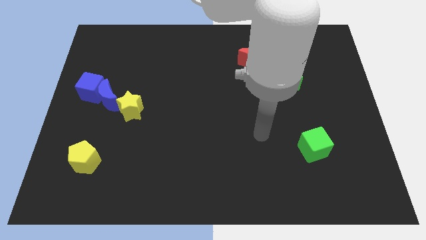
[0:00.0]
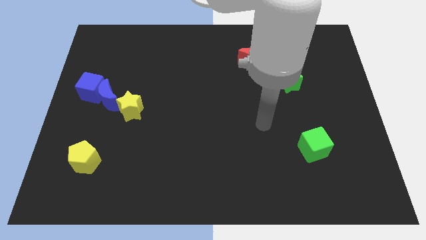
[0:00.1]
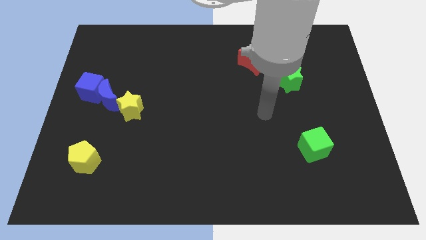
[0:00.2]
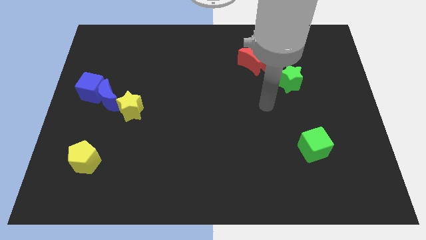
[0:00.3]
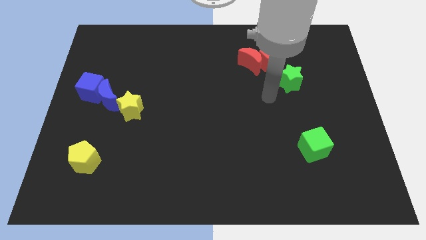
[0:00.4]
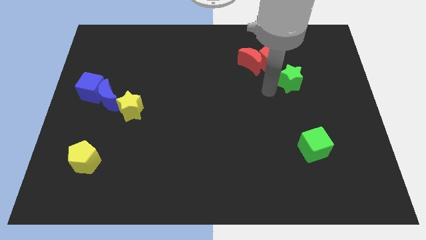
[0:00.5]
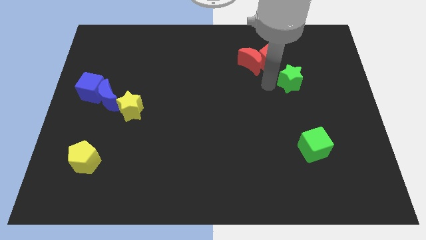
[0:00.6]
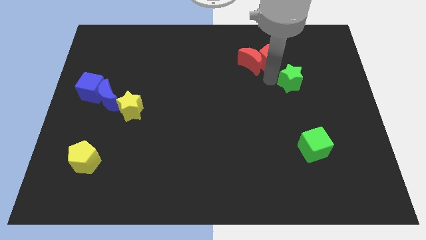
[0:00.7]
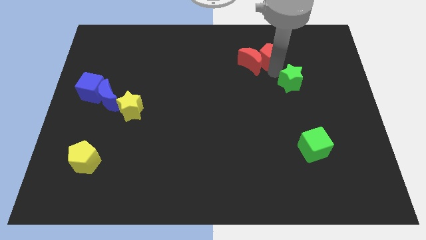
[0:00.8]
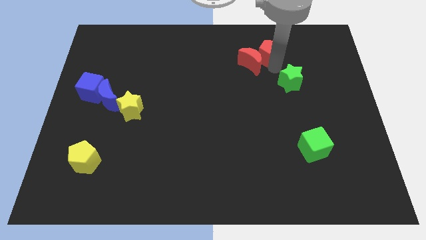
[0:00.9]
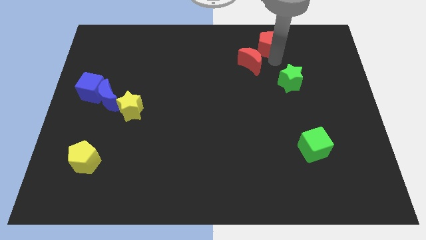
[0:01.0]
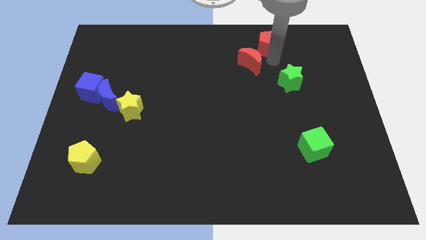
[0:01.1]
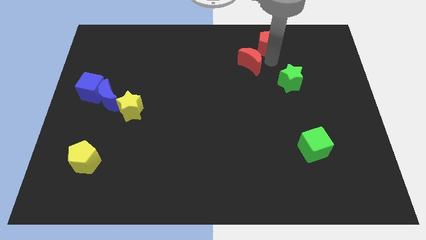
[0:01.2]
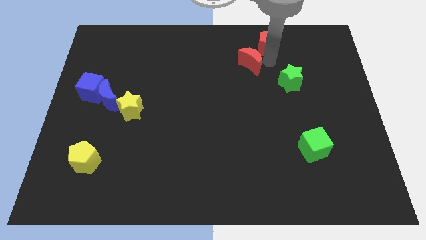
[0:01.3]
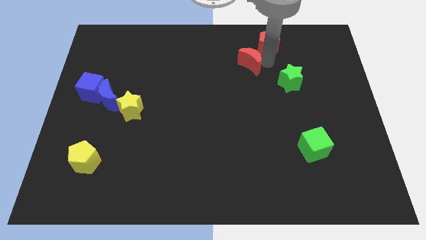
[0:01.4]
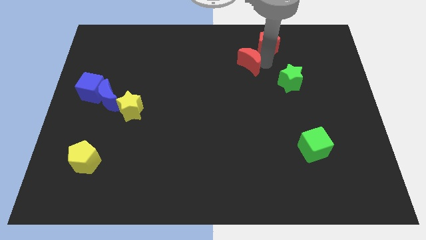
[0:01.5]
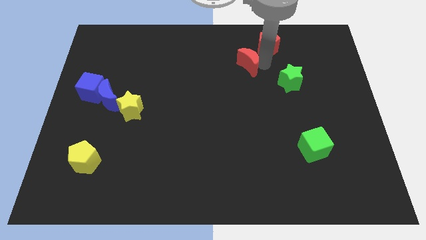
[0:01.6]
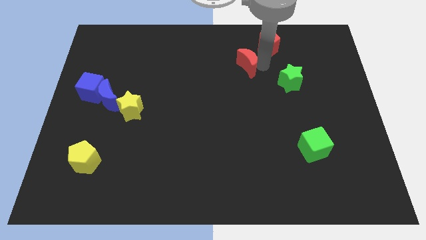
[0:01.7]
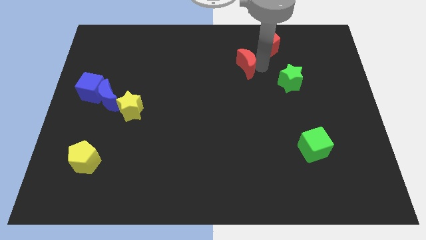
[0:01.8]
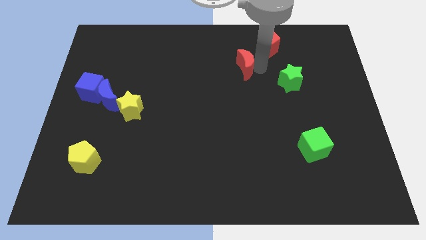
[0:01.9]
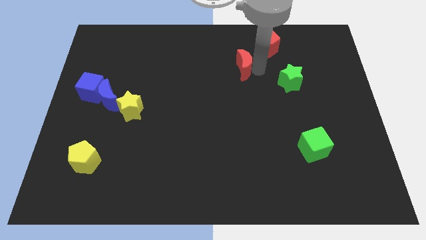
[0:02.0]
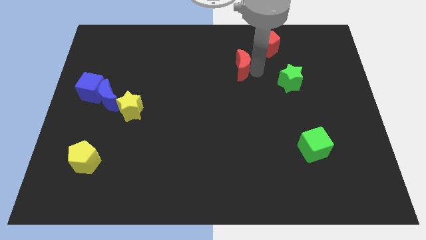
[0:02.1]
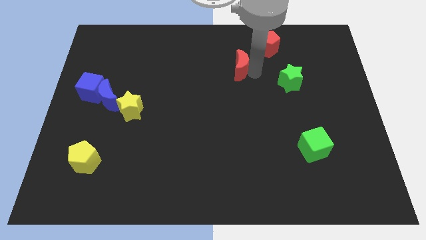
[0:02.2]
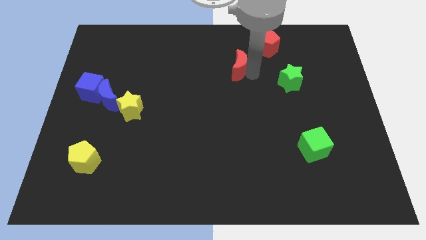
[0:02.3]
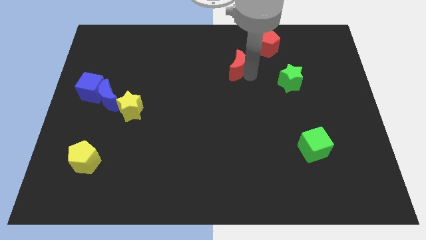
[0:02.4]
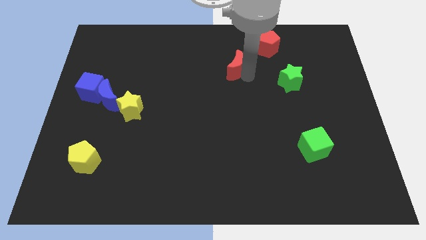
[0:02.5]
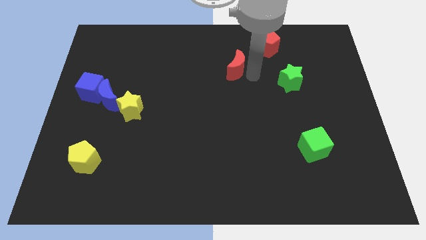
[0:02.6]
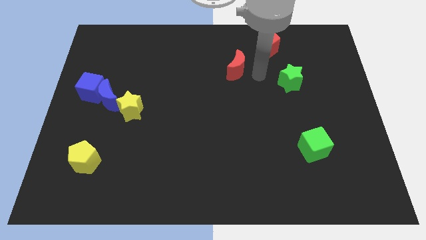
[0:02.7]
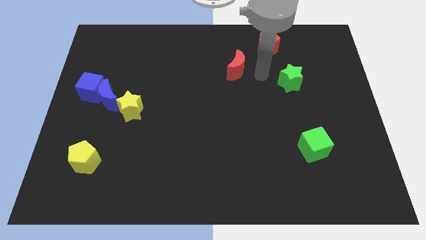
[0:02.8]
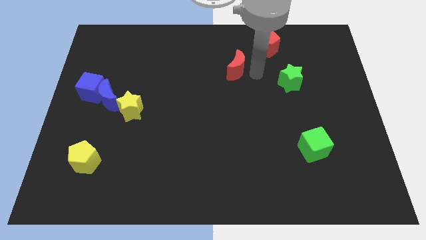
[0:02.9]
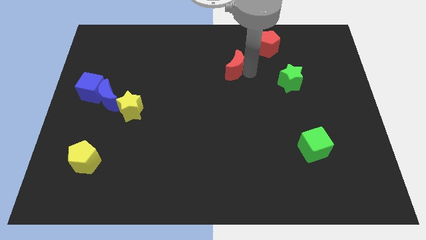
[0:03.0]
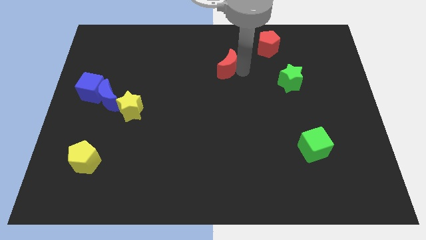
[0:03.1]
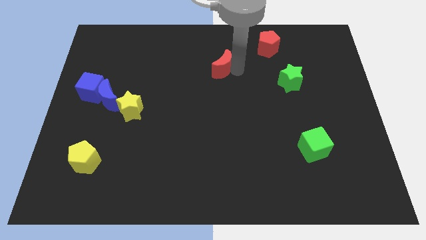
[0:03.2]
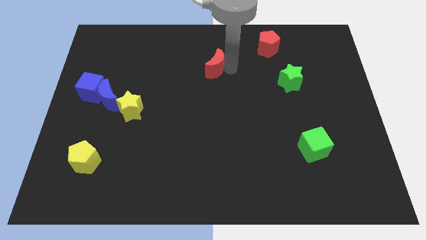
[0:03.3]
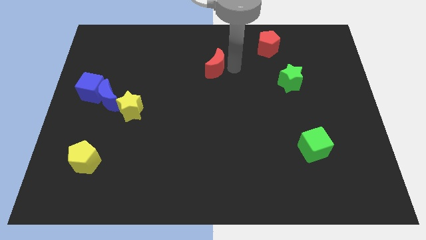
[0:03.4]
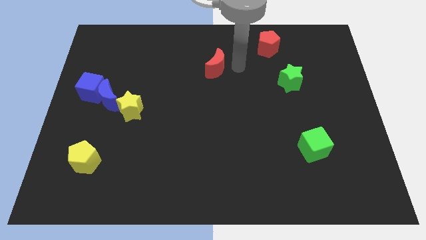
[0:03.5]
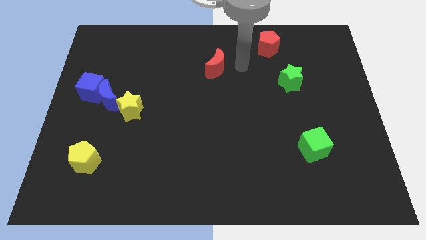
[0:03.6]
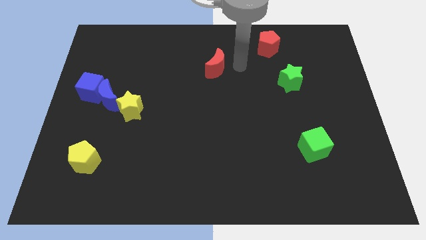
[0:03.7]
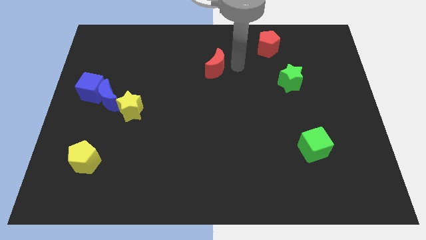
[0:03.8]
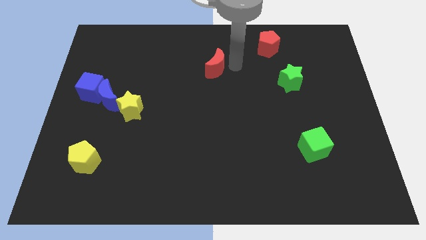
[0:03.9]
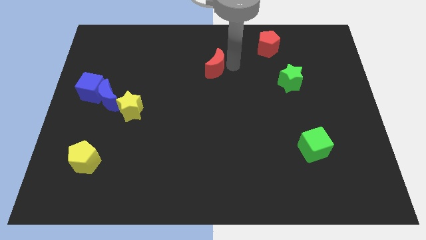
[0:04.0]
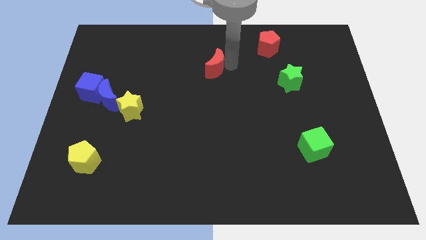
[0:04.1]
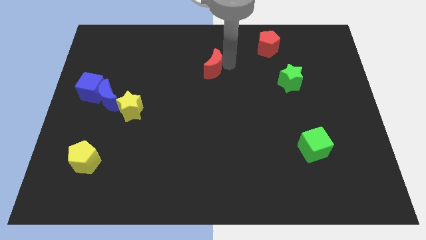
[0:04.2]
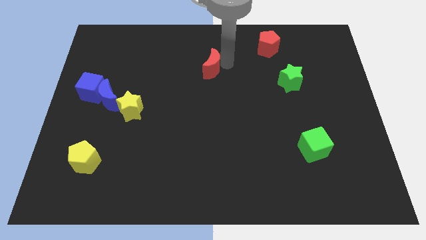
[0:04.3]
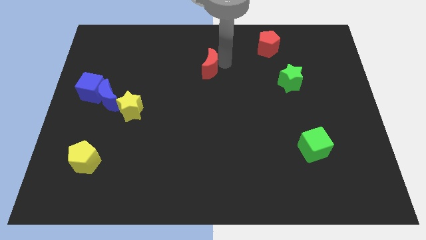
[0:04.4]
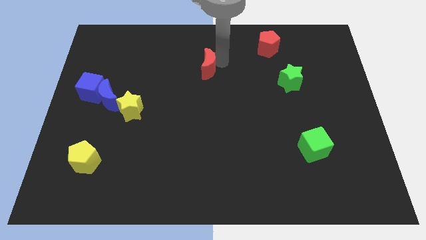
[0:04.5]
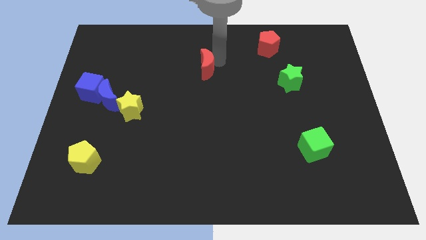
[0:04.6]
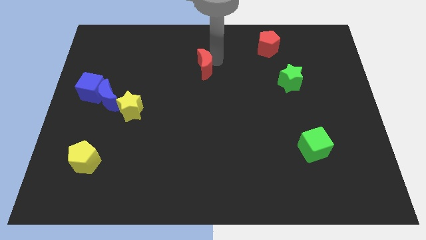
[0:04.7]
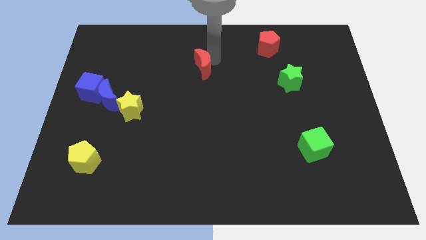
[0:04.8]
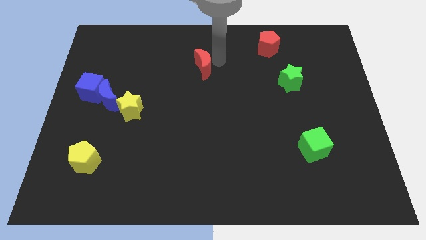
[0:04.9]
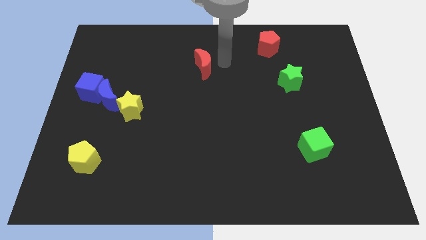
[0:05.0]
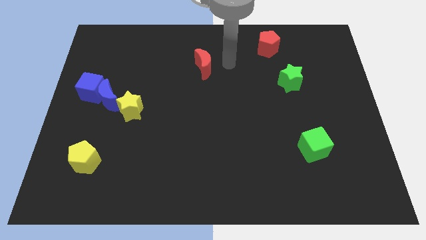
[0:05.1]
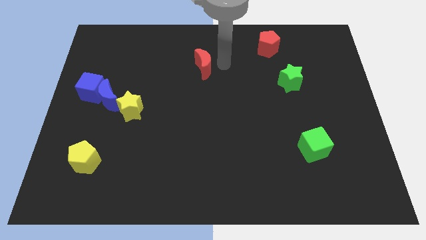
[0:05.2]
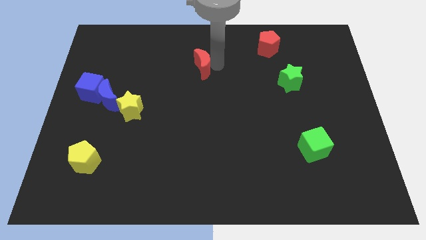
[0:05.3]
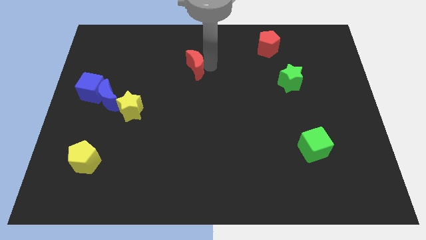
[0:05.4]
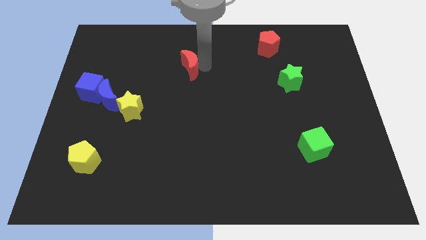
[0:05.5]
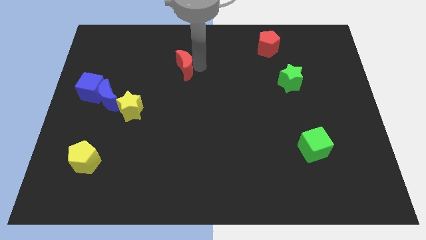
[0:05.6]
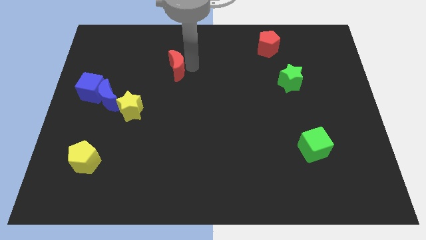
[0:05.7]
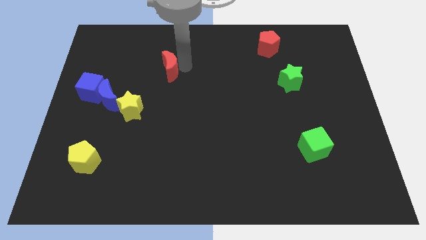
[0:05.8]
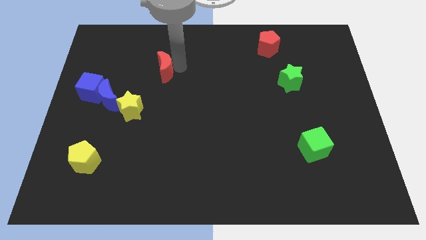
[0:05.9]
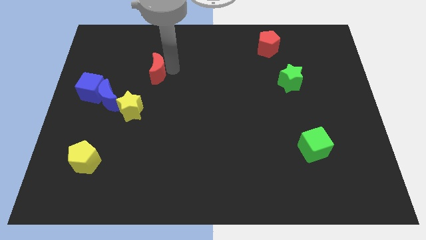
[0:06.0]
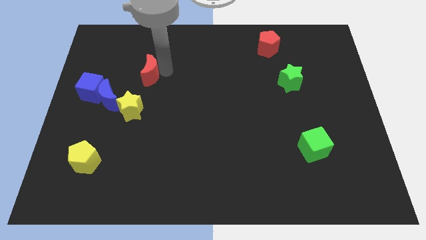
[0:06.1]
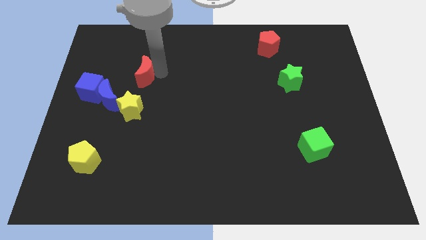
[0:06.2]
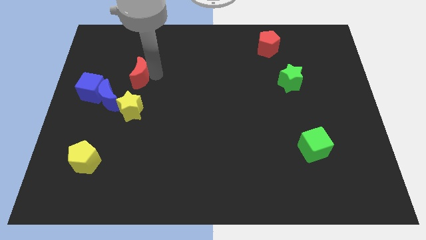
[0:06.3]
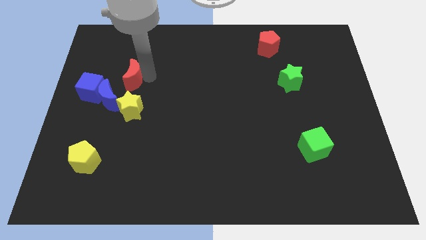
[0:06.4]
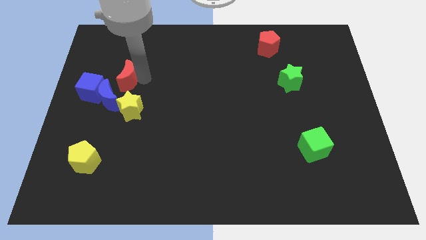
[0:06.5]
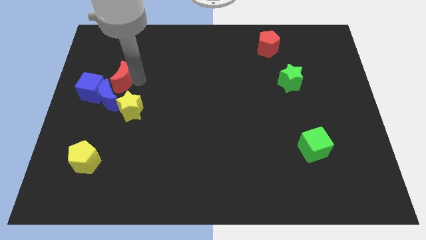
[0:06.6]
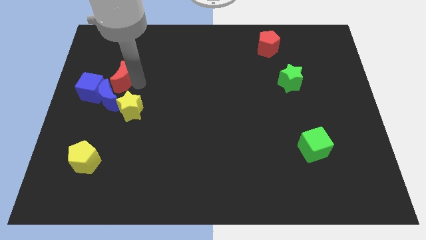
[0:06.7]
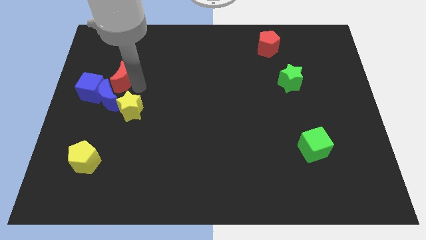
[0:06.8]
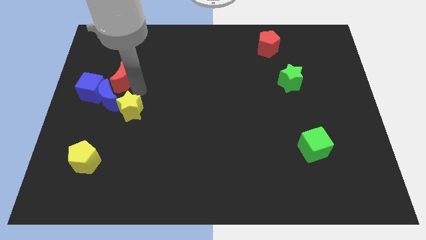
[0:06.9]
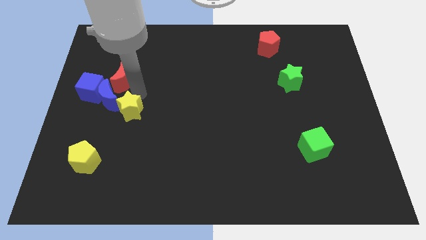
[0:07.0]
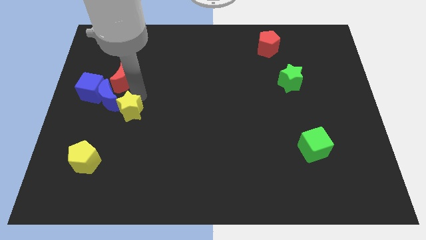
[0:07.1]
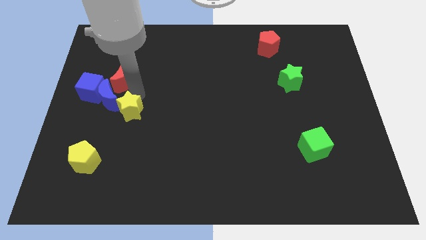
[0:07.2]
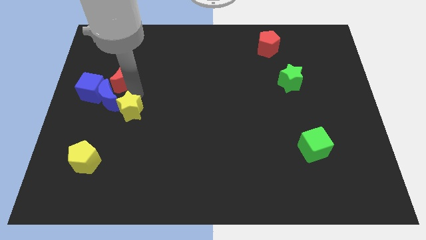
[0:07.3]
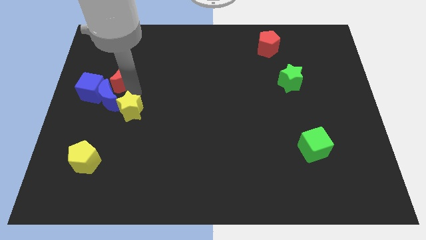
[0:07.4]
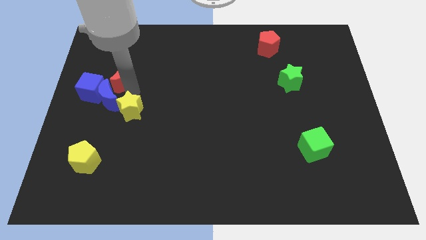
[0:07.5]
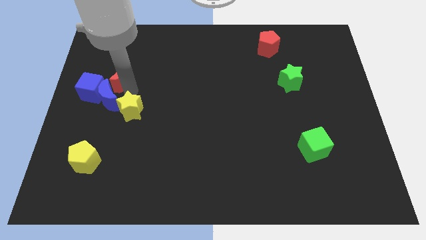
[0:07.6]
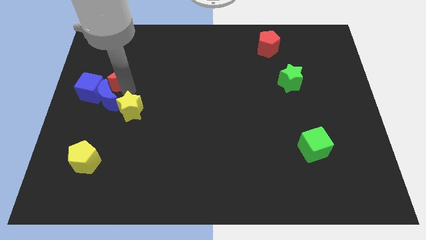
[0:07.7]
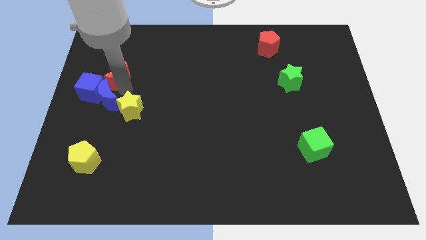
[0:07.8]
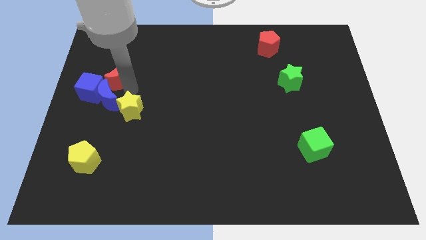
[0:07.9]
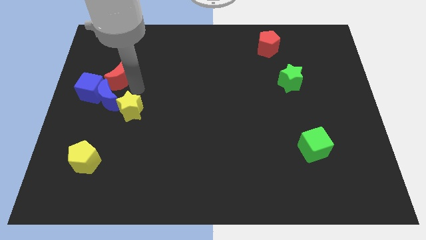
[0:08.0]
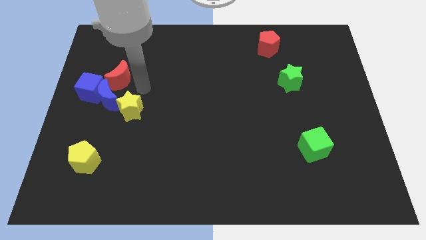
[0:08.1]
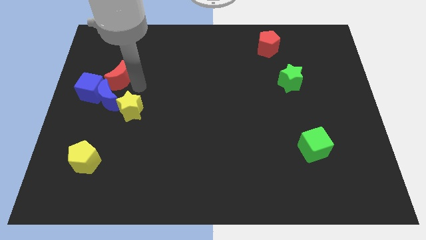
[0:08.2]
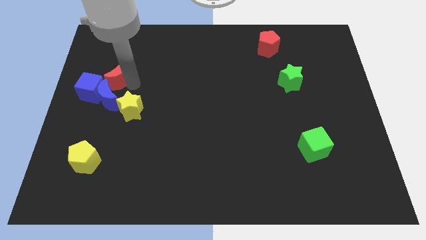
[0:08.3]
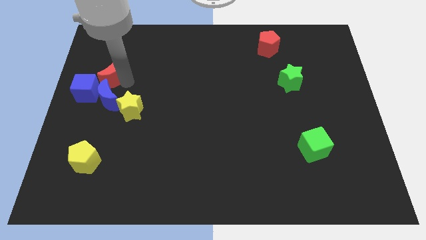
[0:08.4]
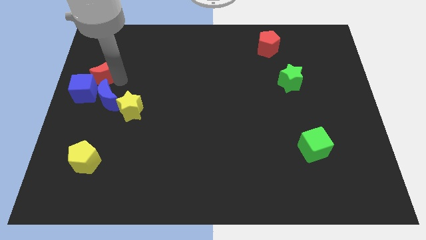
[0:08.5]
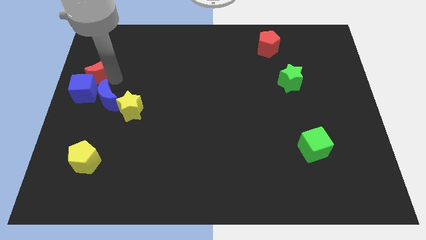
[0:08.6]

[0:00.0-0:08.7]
slide the red moon to the center left
